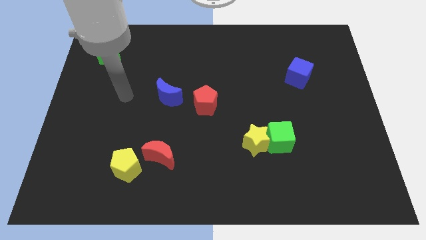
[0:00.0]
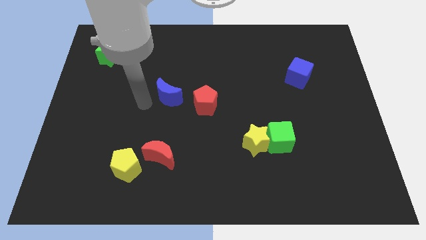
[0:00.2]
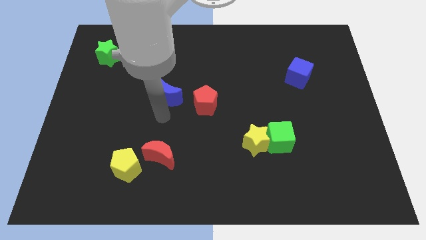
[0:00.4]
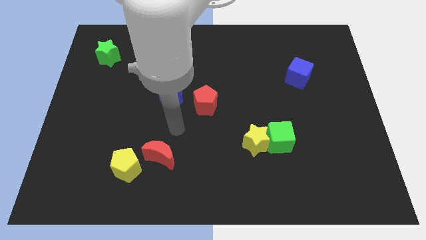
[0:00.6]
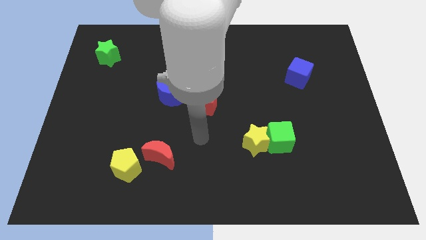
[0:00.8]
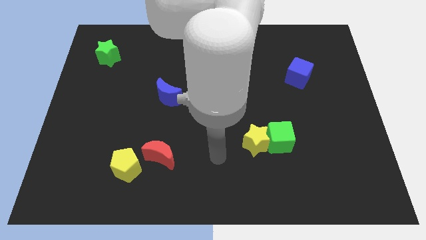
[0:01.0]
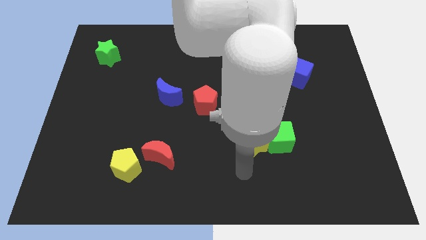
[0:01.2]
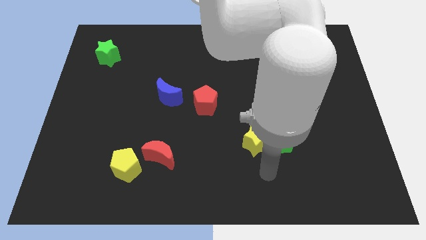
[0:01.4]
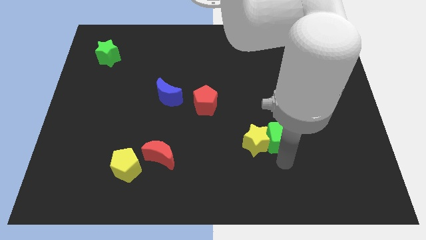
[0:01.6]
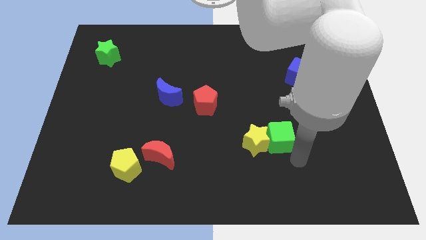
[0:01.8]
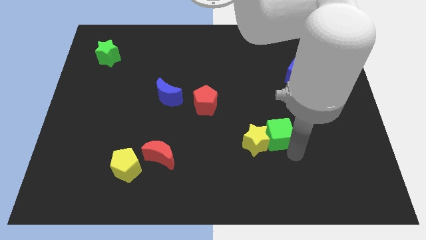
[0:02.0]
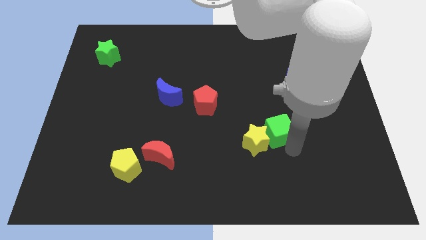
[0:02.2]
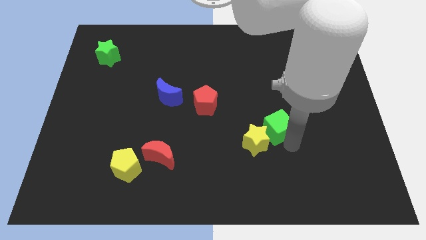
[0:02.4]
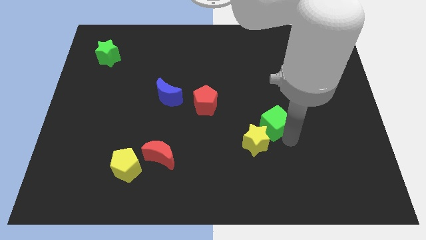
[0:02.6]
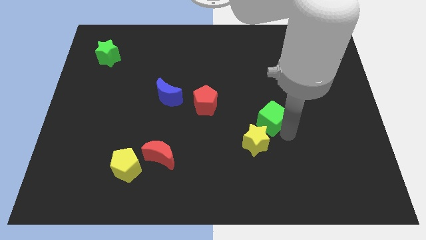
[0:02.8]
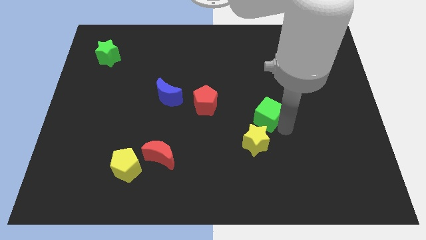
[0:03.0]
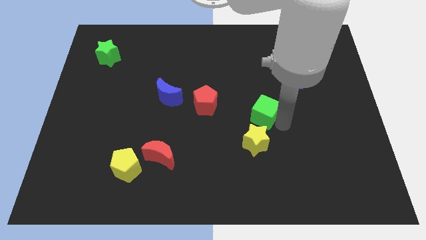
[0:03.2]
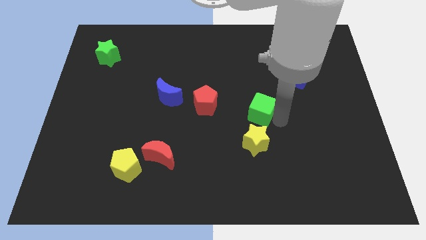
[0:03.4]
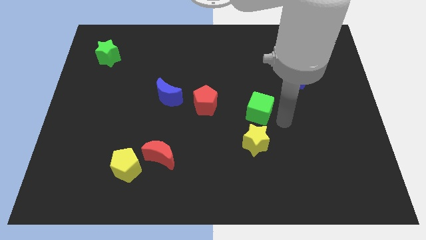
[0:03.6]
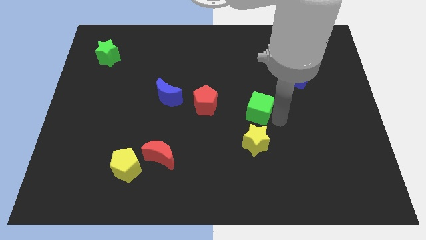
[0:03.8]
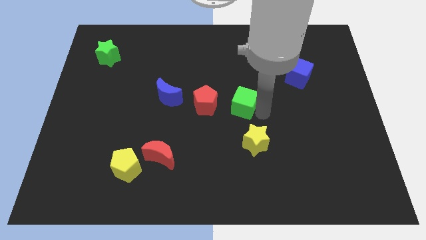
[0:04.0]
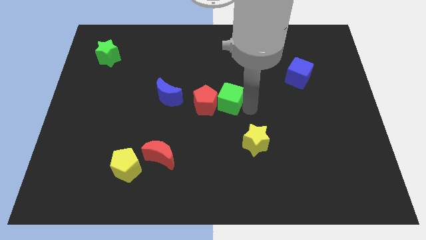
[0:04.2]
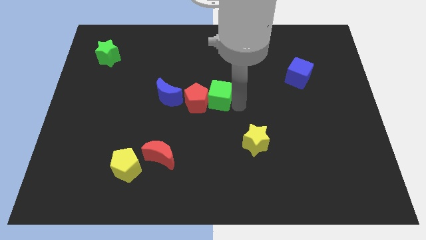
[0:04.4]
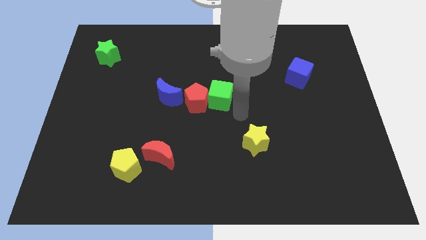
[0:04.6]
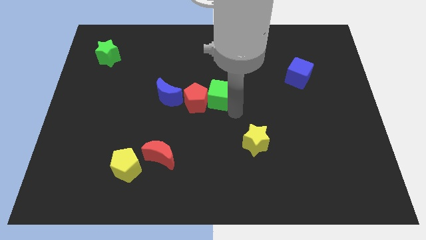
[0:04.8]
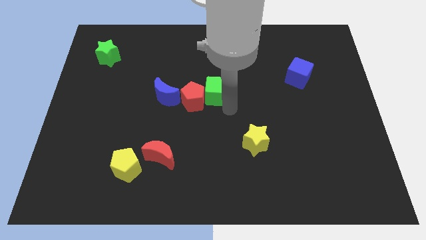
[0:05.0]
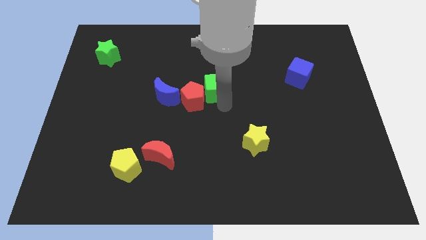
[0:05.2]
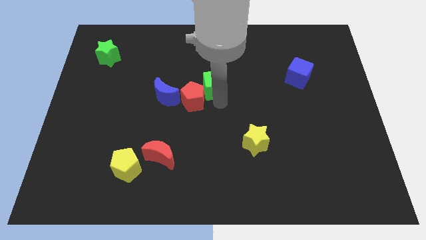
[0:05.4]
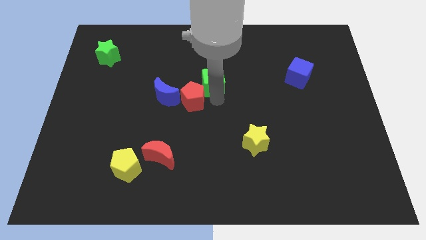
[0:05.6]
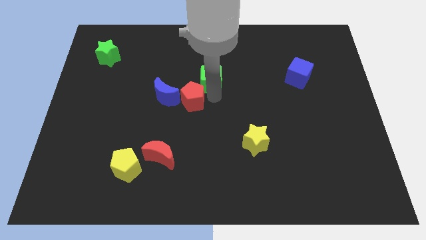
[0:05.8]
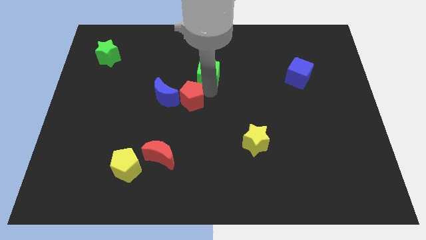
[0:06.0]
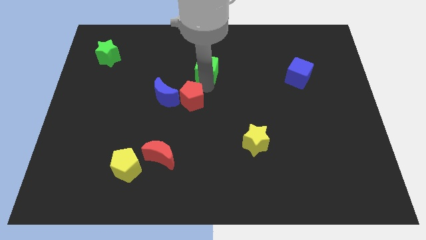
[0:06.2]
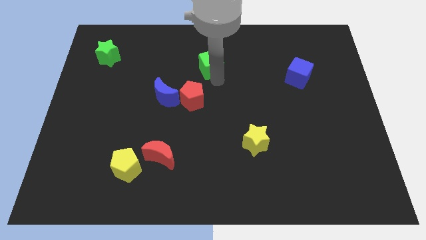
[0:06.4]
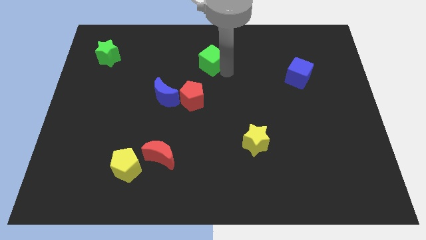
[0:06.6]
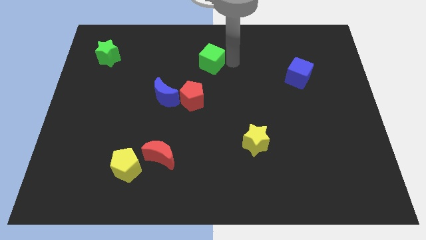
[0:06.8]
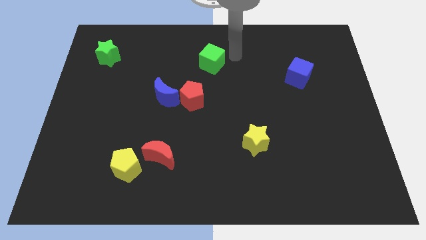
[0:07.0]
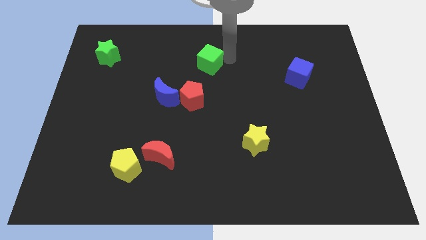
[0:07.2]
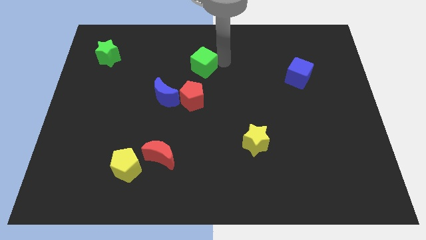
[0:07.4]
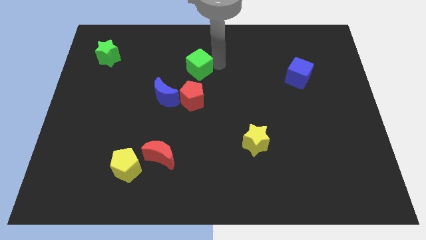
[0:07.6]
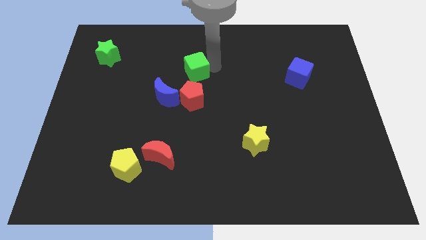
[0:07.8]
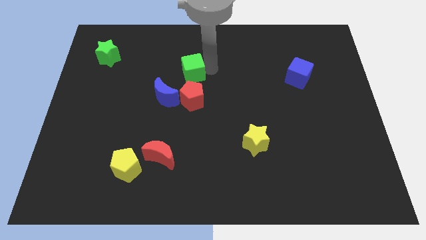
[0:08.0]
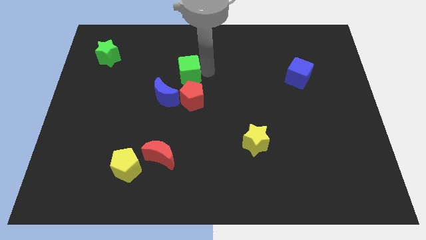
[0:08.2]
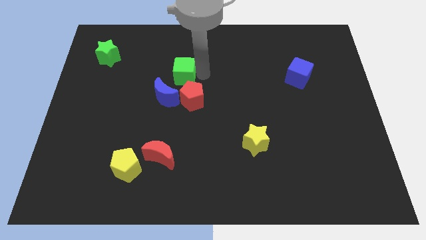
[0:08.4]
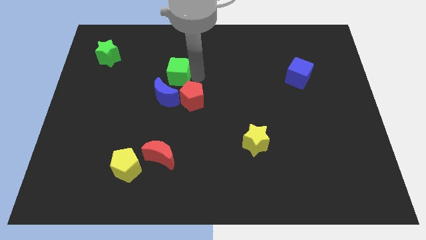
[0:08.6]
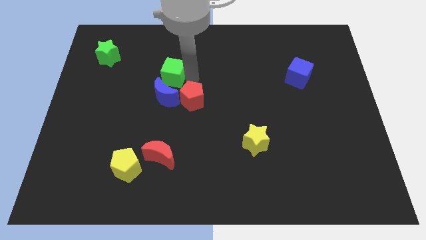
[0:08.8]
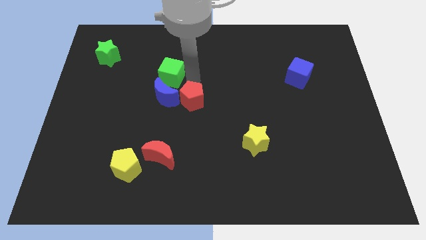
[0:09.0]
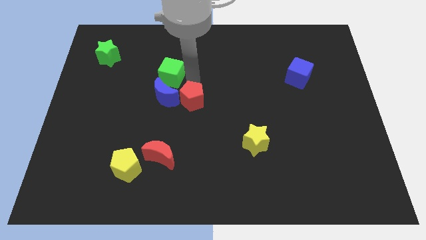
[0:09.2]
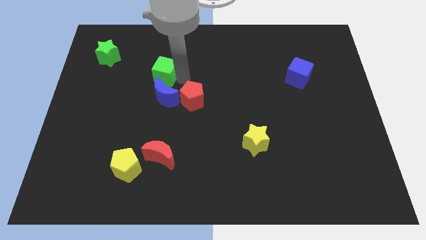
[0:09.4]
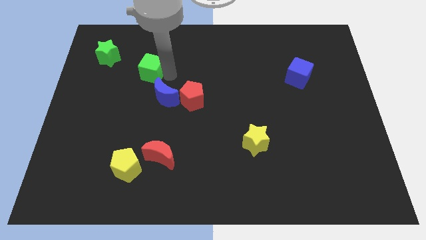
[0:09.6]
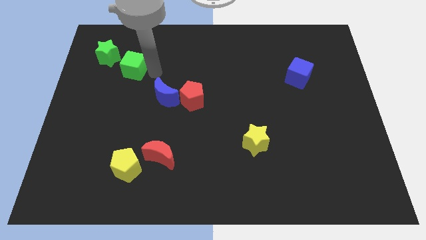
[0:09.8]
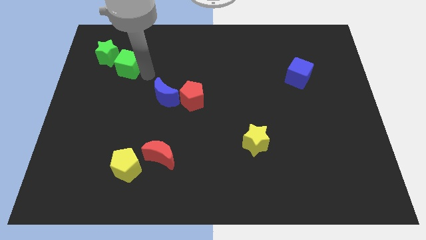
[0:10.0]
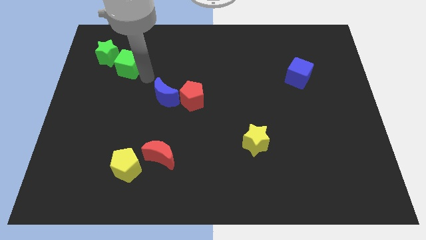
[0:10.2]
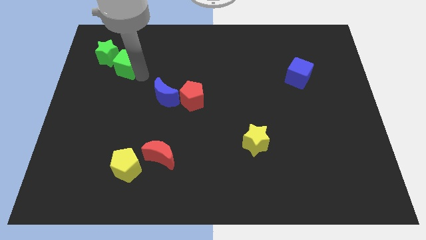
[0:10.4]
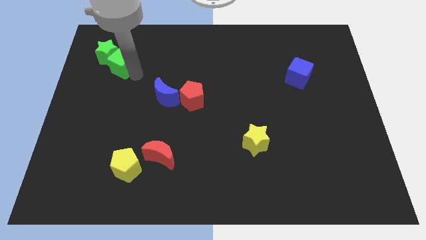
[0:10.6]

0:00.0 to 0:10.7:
put the green cube next to the green star

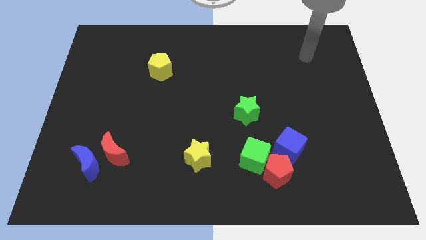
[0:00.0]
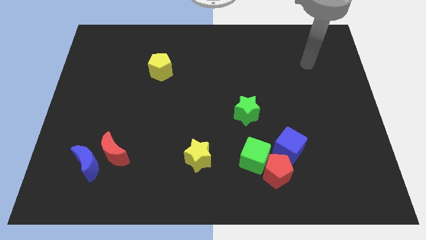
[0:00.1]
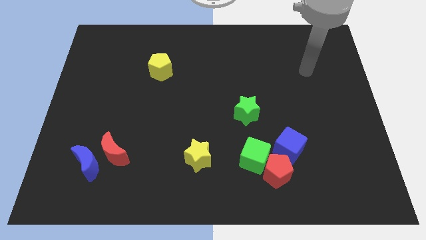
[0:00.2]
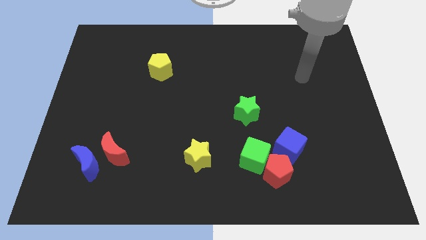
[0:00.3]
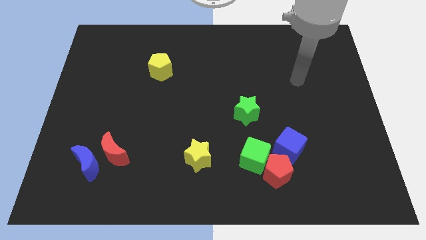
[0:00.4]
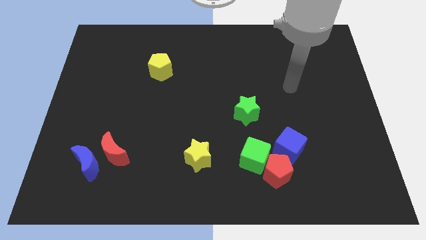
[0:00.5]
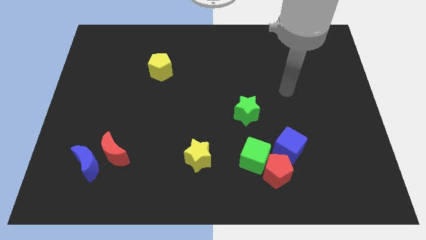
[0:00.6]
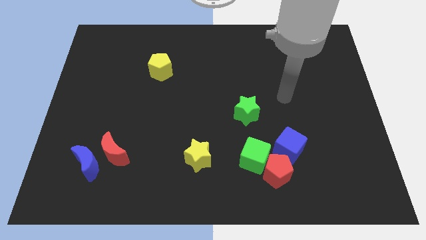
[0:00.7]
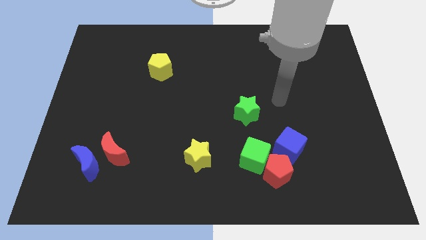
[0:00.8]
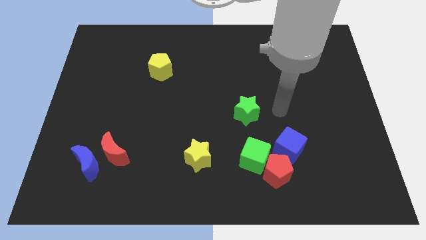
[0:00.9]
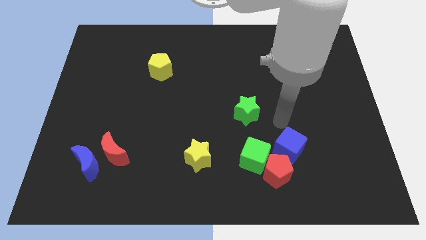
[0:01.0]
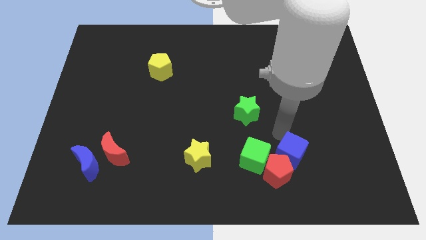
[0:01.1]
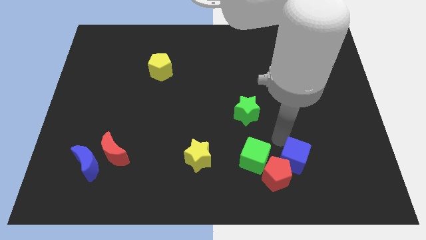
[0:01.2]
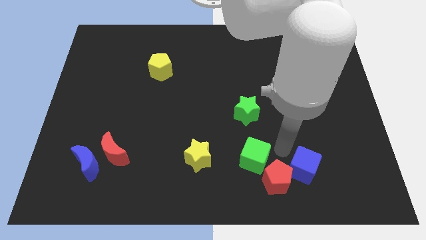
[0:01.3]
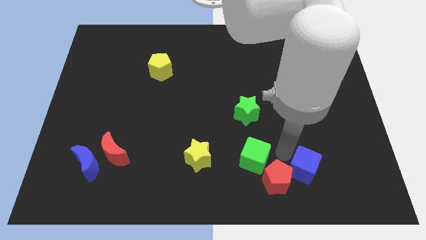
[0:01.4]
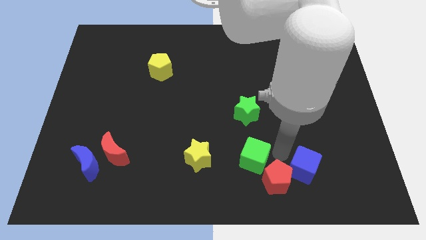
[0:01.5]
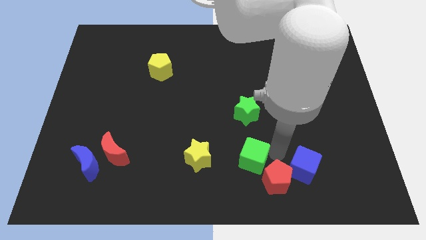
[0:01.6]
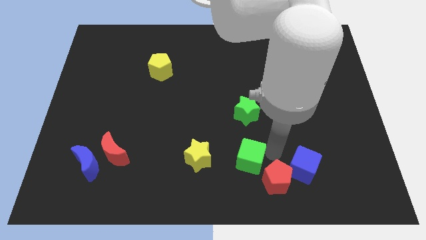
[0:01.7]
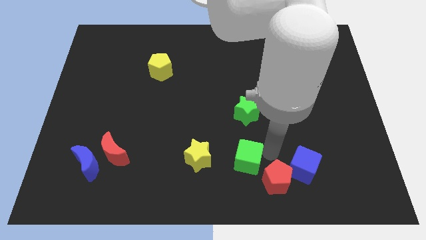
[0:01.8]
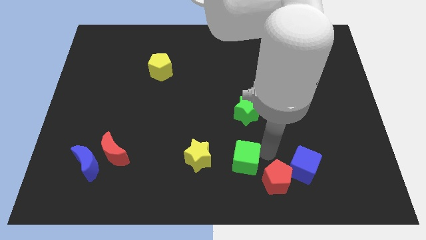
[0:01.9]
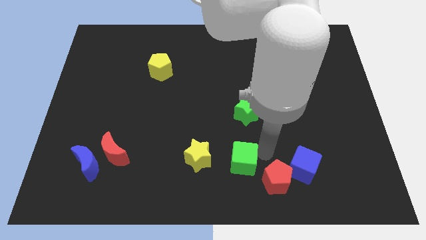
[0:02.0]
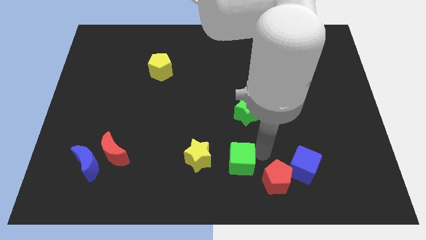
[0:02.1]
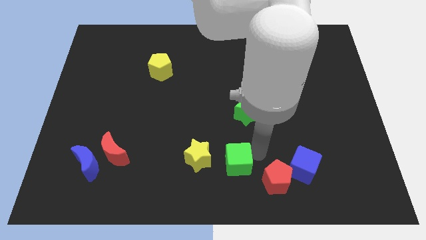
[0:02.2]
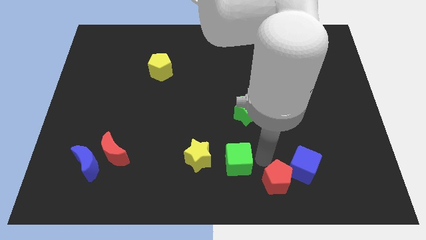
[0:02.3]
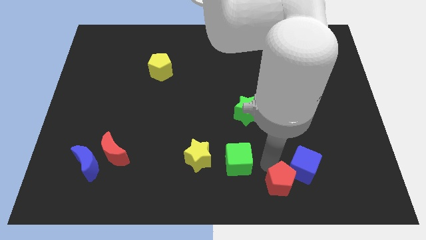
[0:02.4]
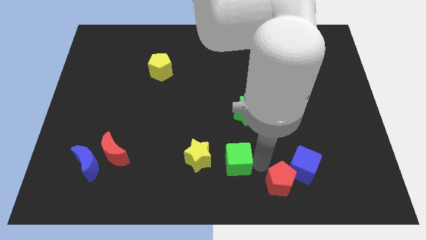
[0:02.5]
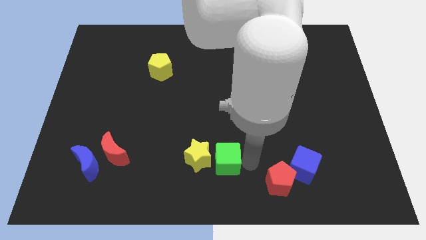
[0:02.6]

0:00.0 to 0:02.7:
slide the green cube to the yellow star

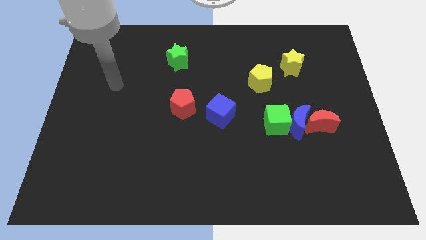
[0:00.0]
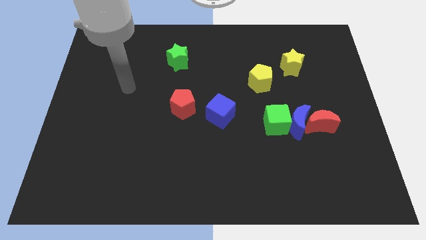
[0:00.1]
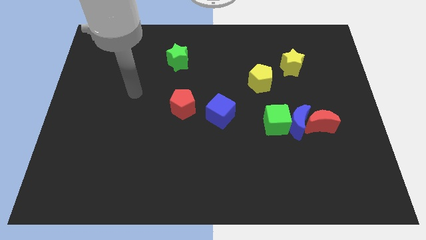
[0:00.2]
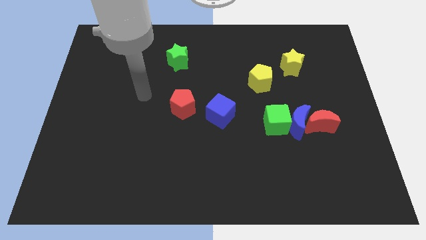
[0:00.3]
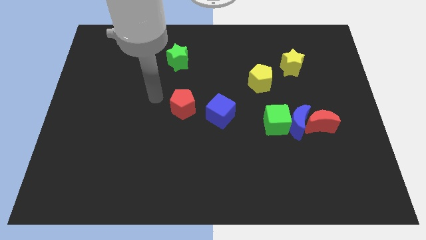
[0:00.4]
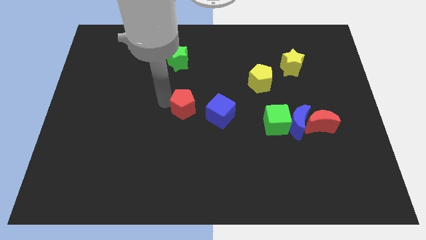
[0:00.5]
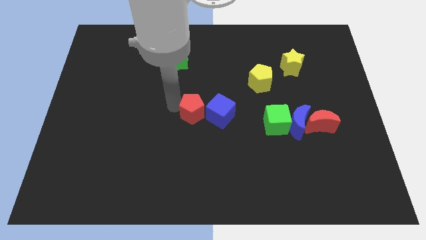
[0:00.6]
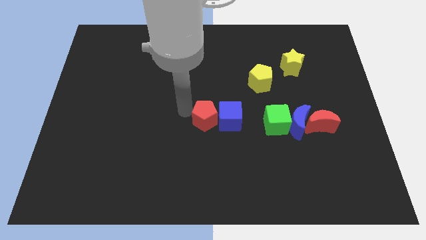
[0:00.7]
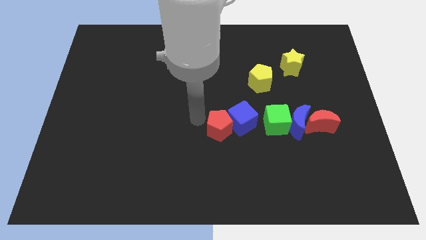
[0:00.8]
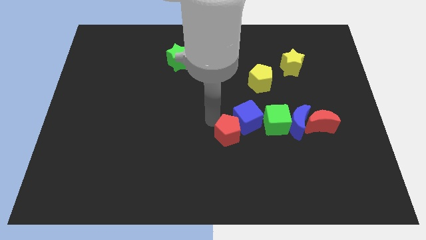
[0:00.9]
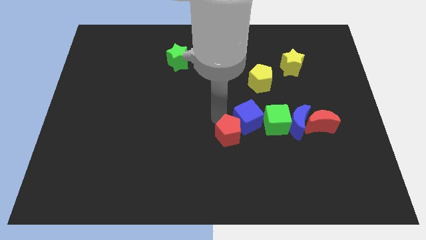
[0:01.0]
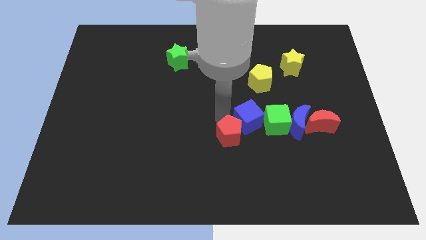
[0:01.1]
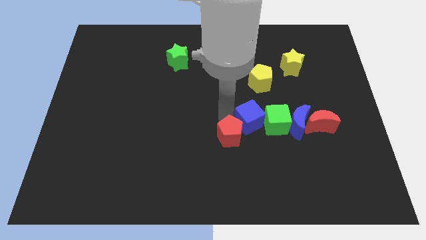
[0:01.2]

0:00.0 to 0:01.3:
move the blue cube next to the green cube
